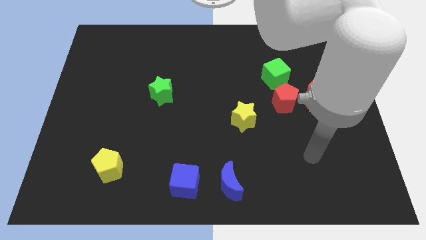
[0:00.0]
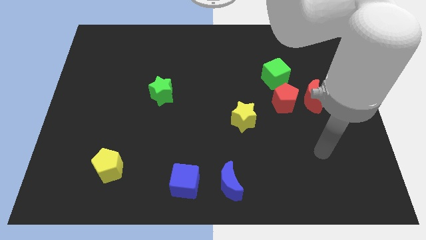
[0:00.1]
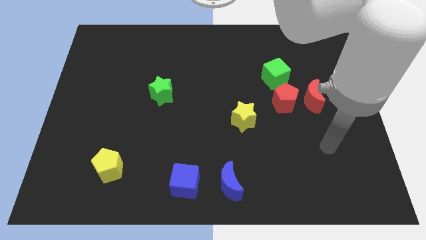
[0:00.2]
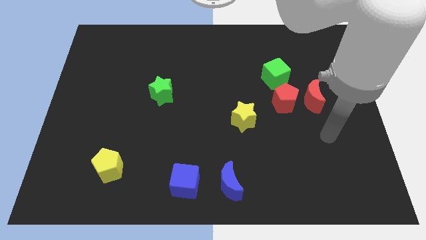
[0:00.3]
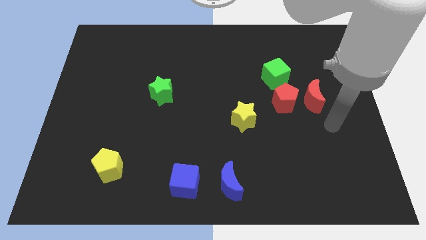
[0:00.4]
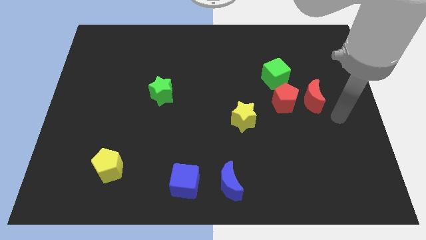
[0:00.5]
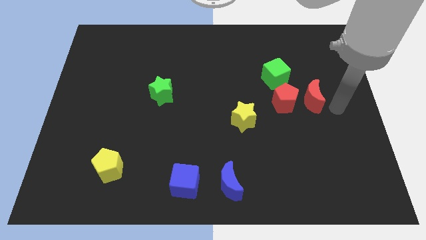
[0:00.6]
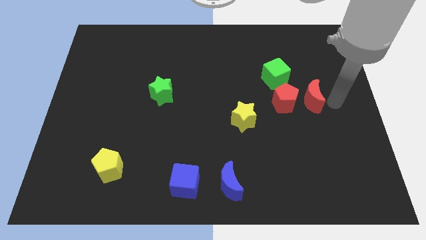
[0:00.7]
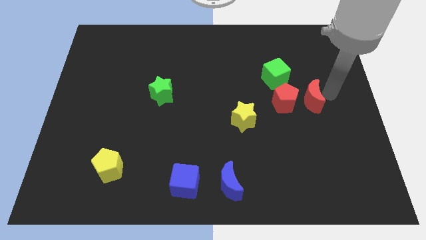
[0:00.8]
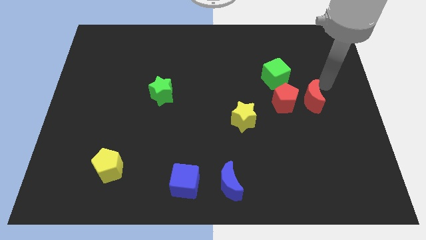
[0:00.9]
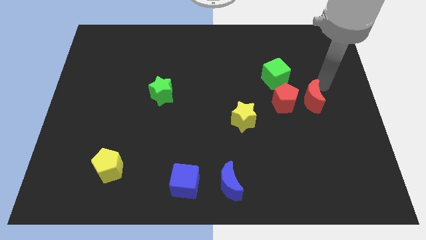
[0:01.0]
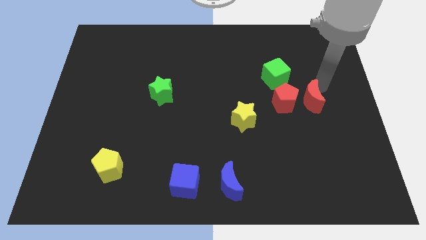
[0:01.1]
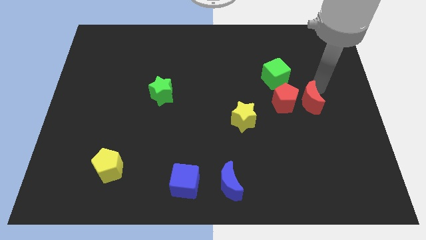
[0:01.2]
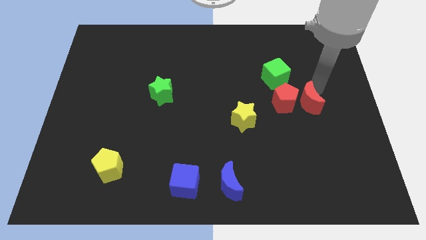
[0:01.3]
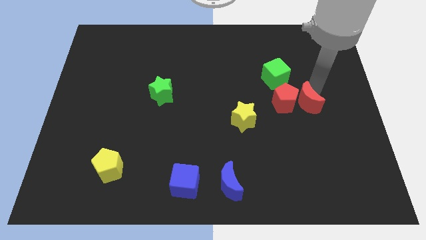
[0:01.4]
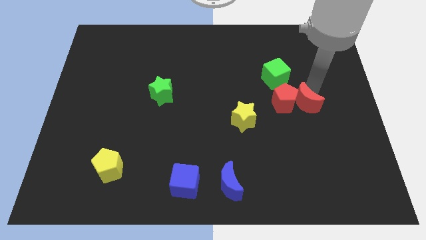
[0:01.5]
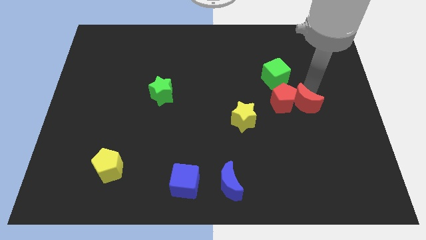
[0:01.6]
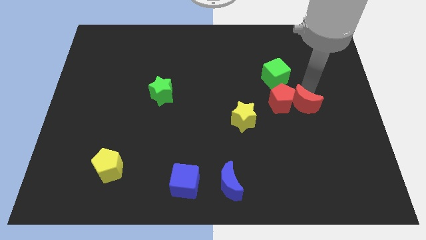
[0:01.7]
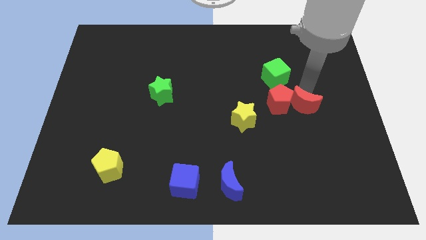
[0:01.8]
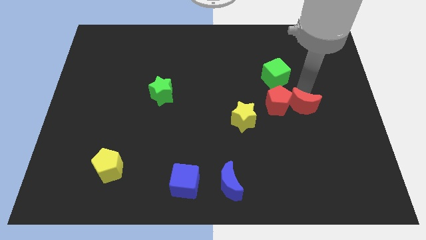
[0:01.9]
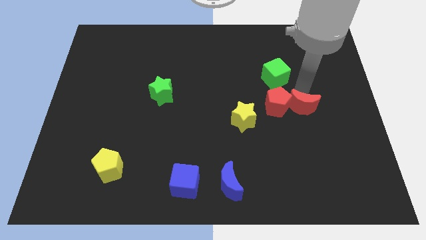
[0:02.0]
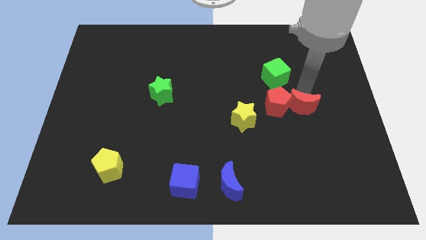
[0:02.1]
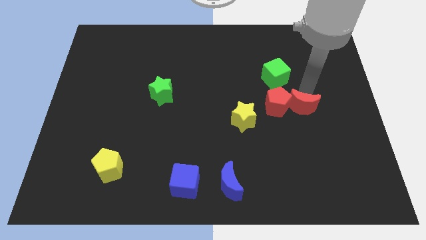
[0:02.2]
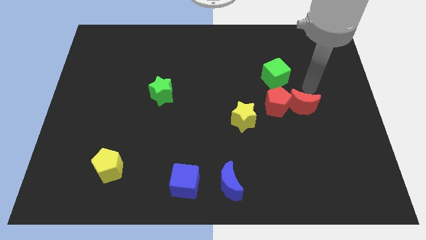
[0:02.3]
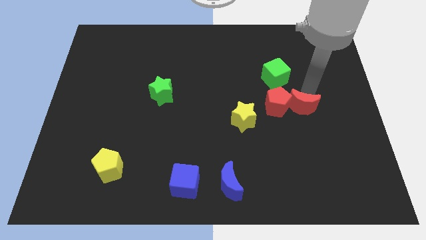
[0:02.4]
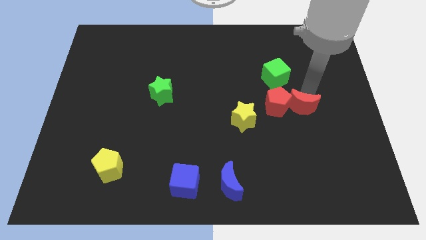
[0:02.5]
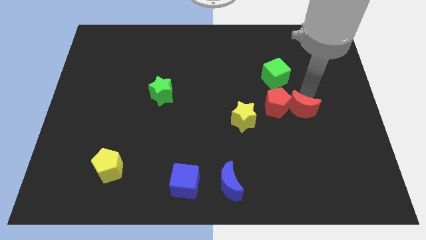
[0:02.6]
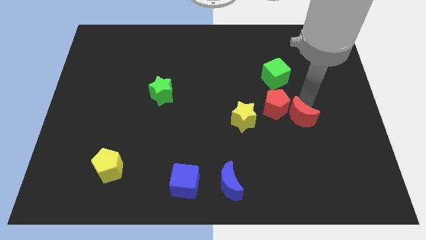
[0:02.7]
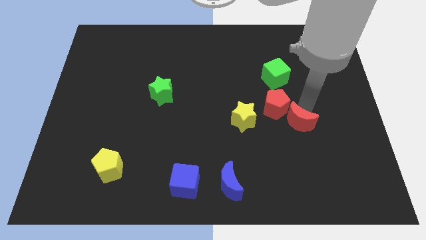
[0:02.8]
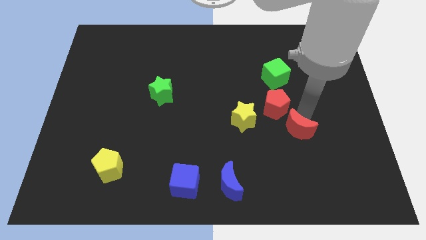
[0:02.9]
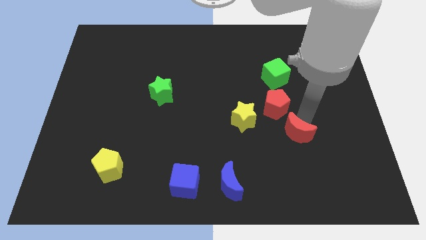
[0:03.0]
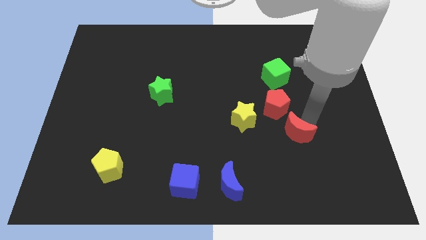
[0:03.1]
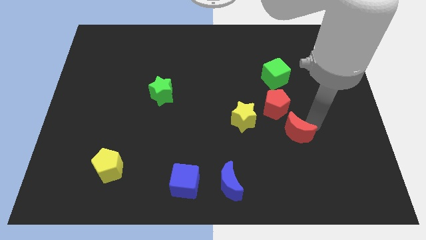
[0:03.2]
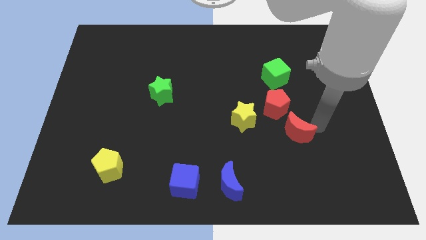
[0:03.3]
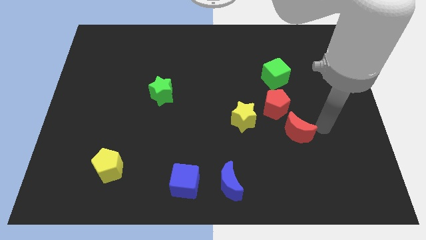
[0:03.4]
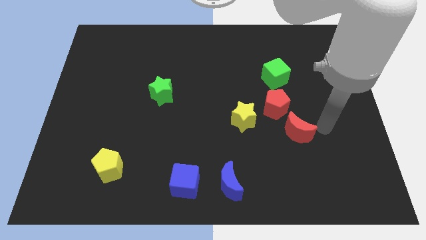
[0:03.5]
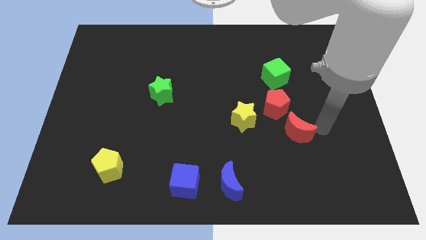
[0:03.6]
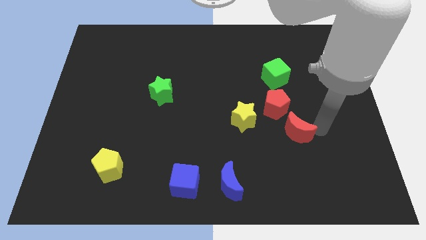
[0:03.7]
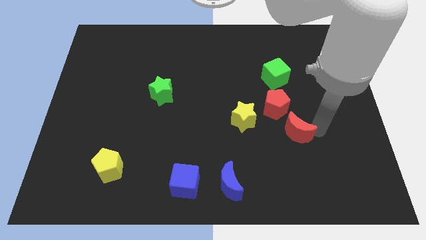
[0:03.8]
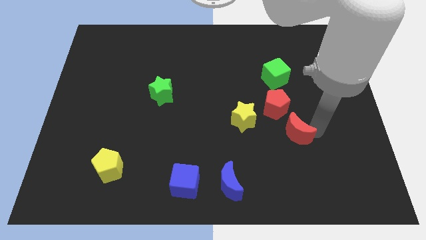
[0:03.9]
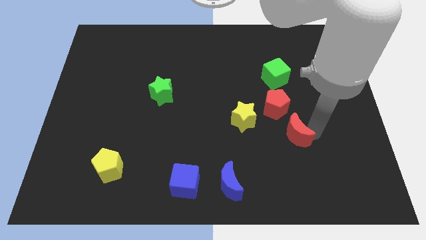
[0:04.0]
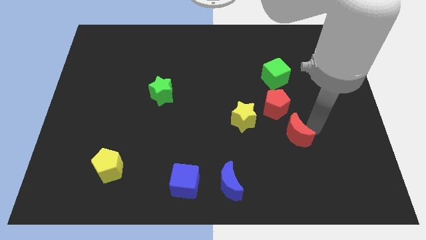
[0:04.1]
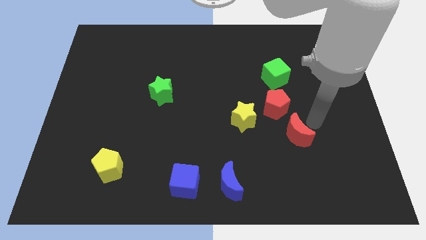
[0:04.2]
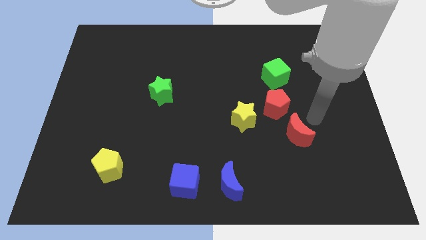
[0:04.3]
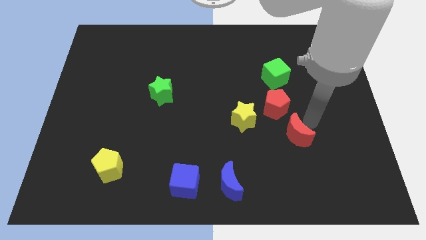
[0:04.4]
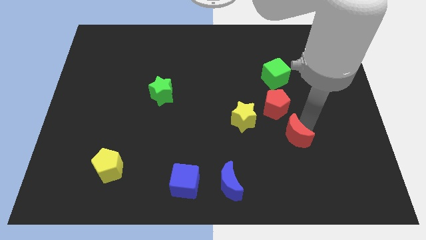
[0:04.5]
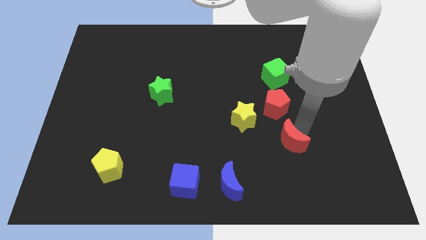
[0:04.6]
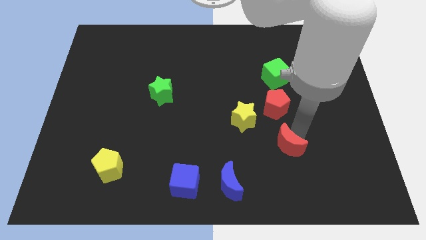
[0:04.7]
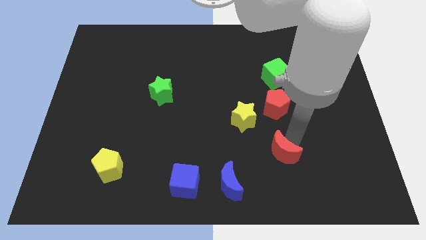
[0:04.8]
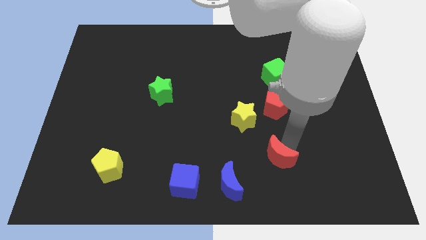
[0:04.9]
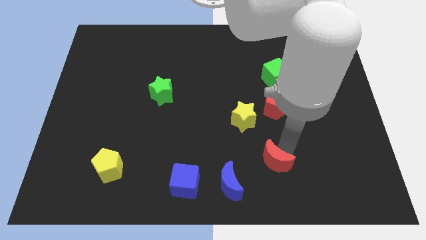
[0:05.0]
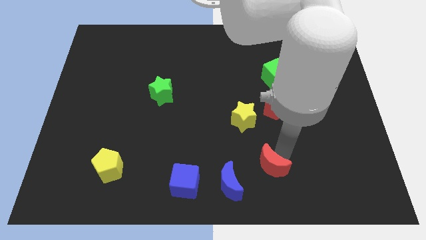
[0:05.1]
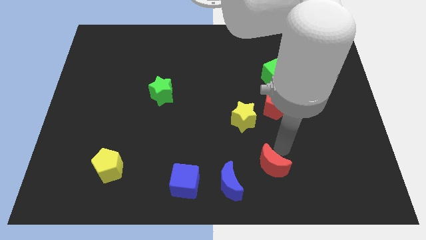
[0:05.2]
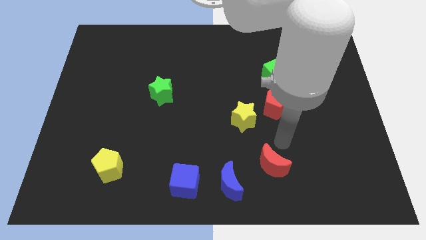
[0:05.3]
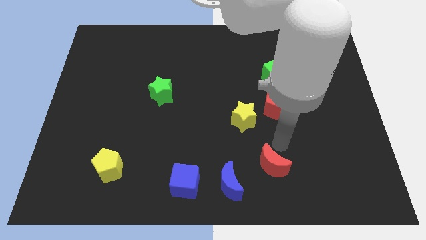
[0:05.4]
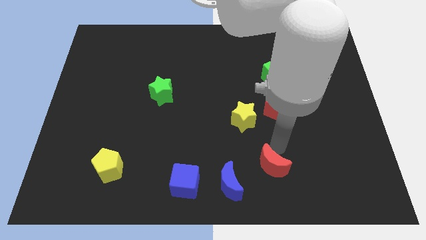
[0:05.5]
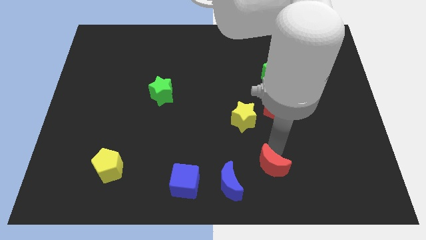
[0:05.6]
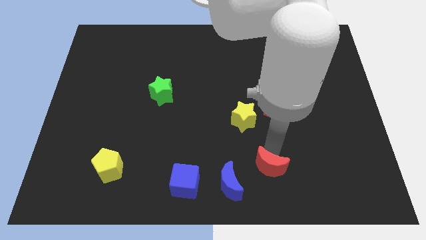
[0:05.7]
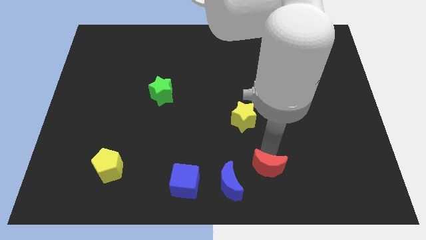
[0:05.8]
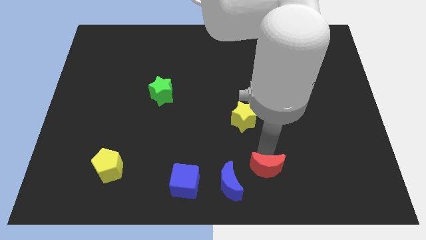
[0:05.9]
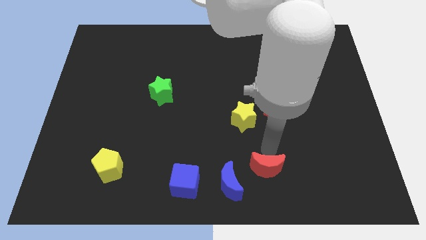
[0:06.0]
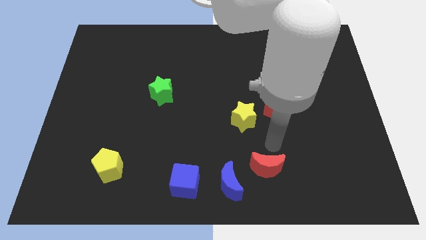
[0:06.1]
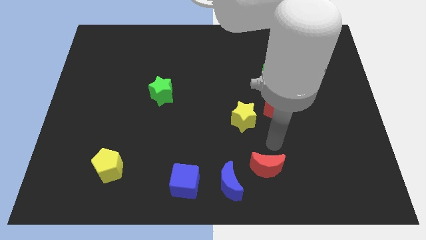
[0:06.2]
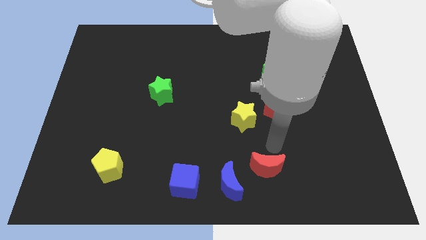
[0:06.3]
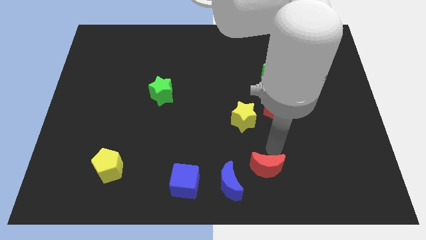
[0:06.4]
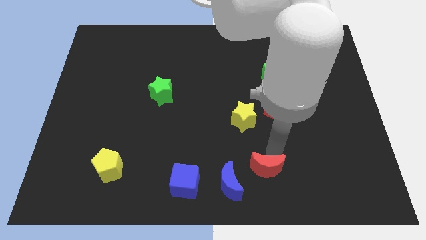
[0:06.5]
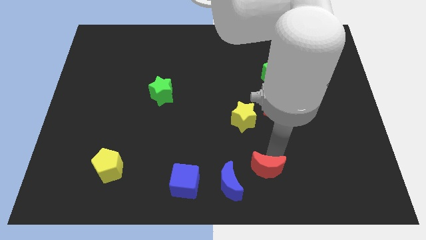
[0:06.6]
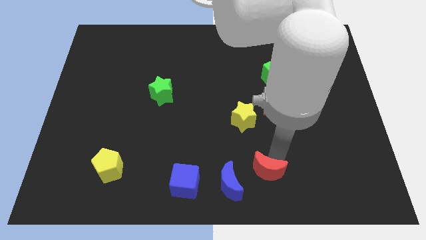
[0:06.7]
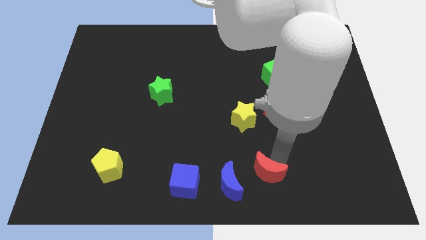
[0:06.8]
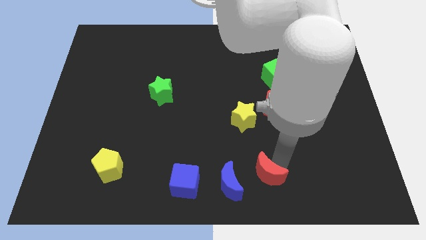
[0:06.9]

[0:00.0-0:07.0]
push the red moon to the bottom side
